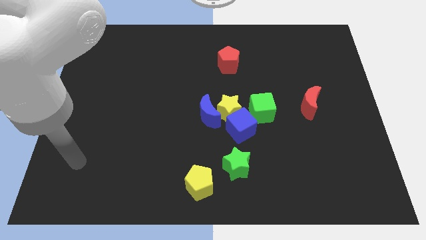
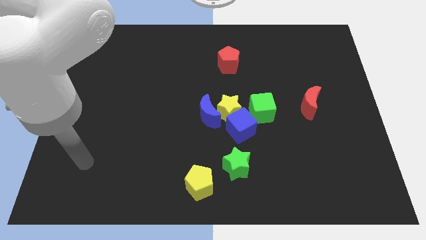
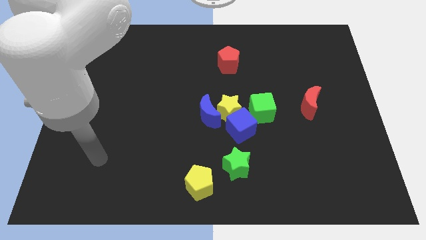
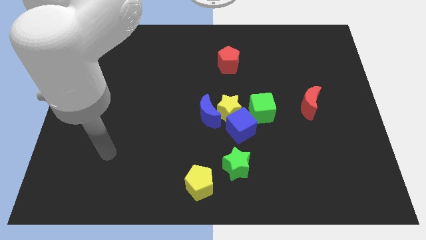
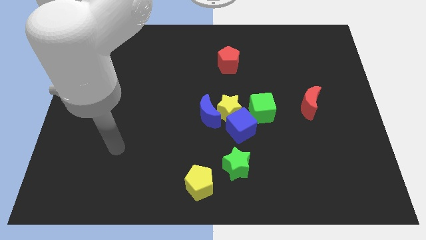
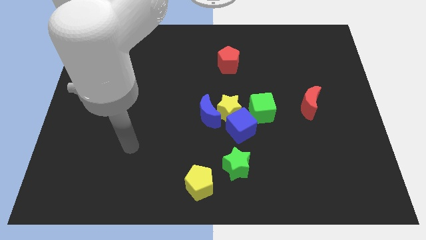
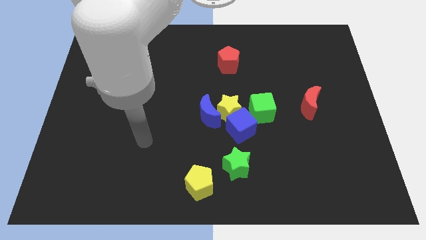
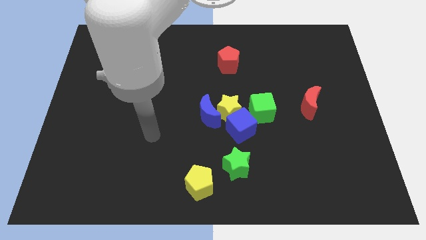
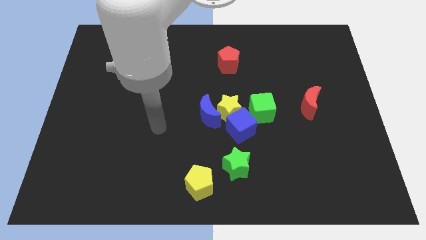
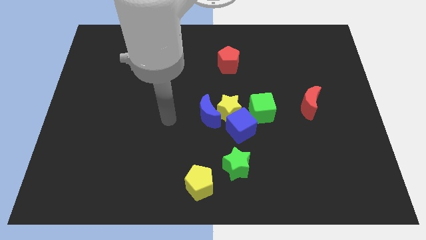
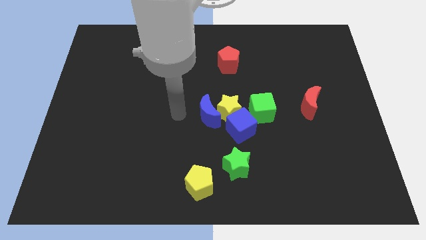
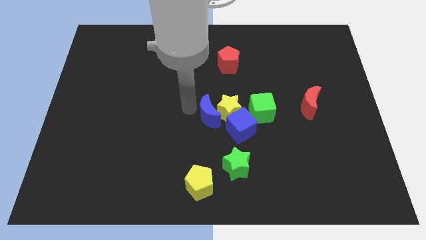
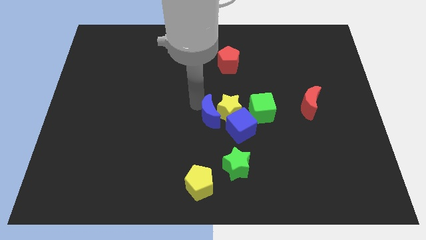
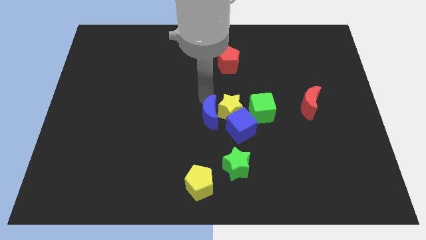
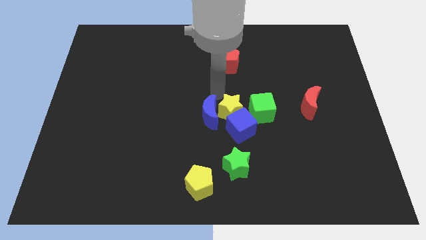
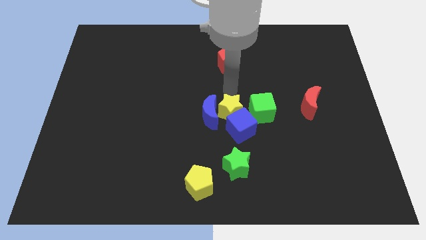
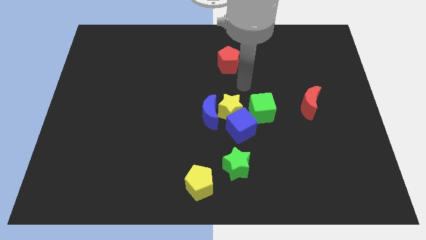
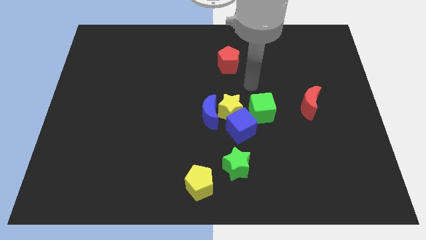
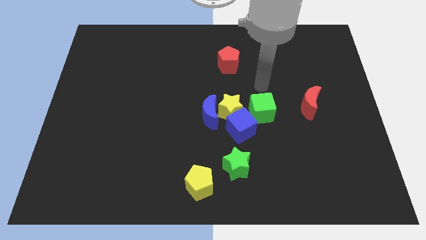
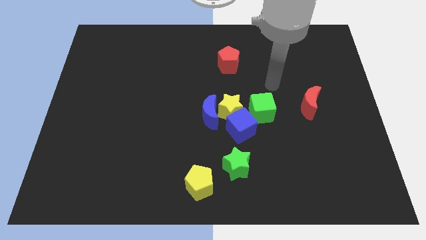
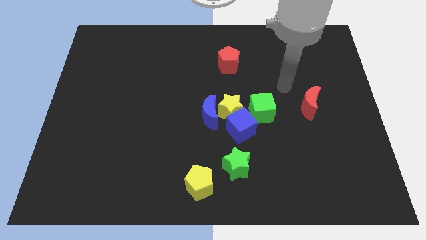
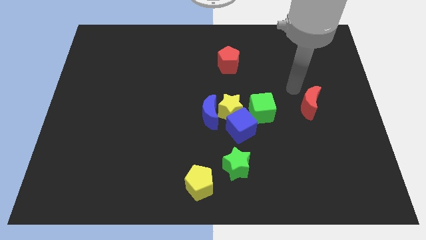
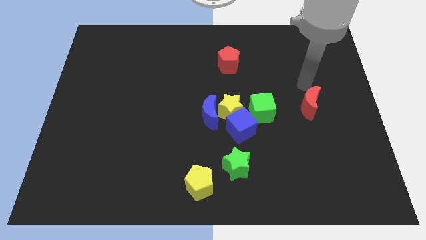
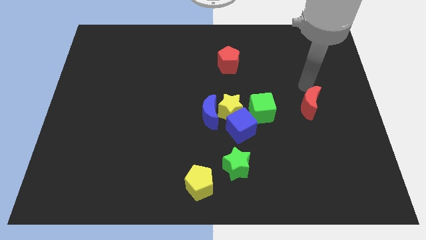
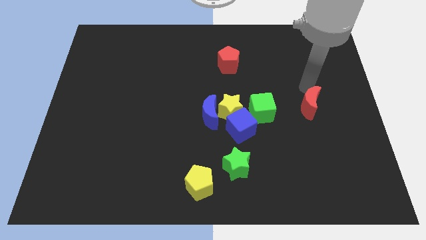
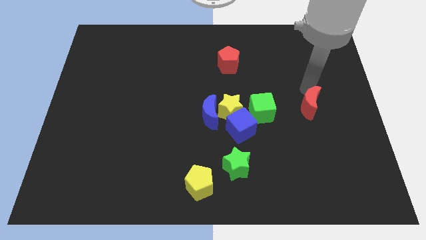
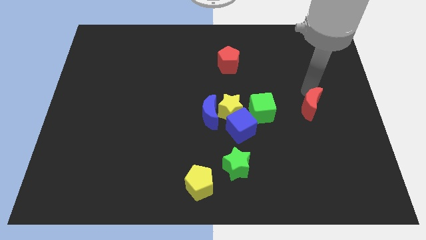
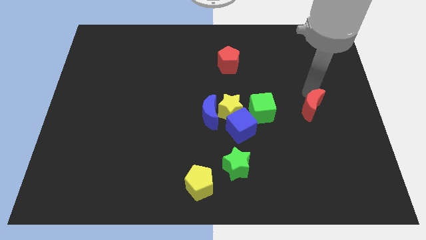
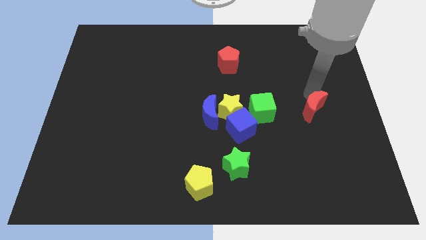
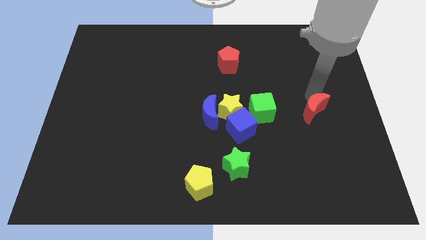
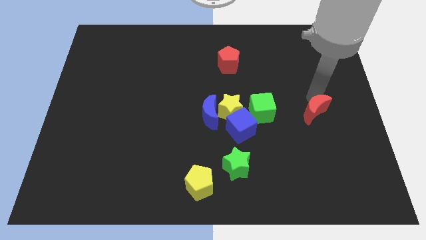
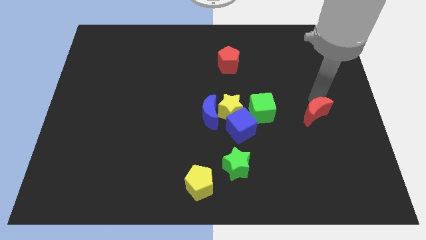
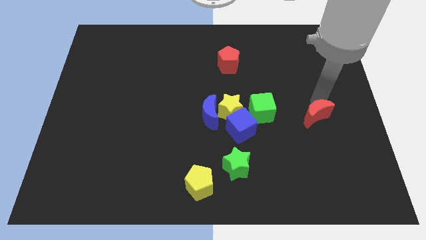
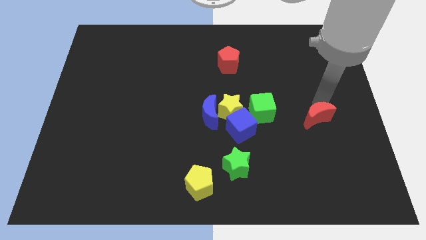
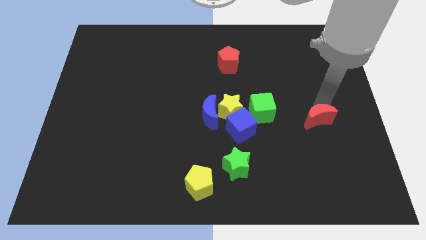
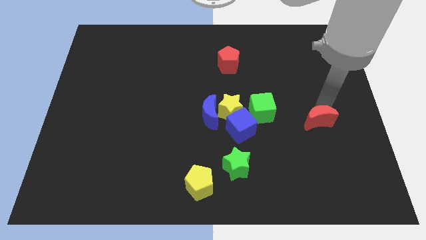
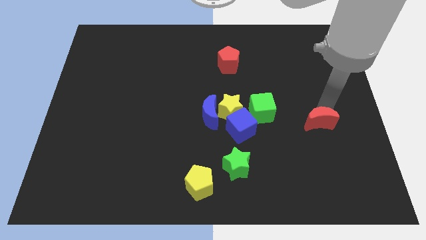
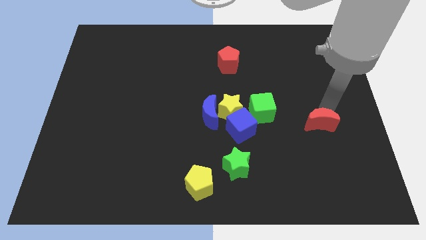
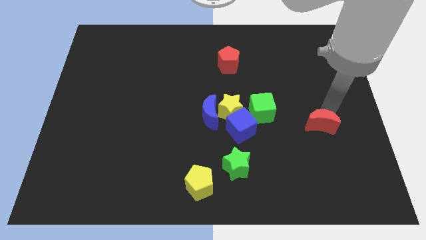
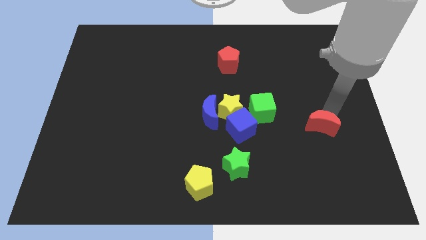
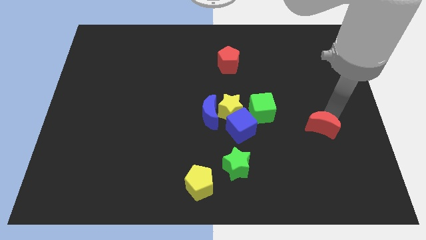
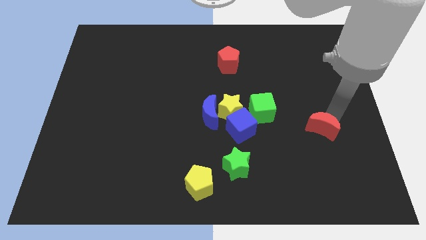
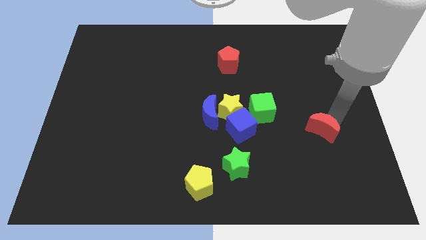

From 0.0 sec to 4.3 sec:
slide the red moon somewhat downwards

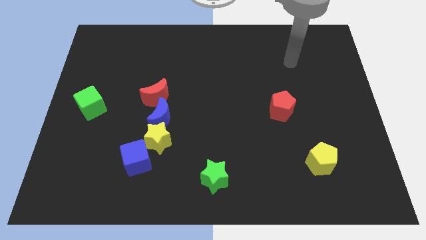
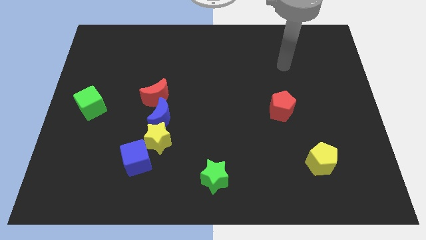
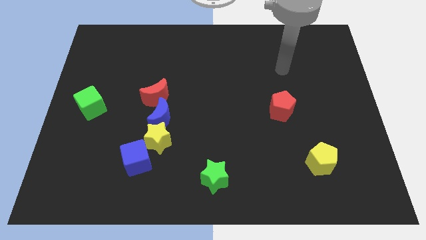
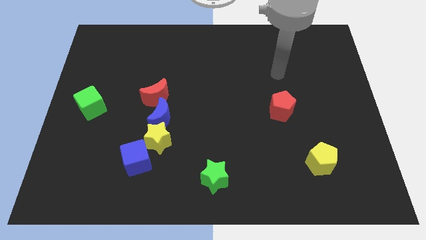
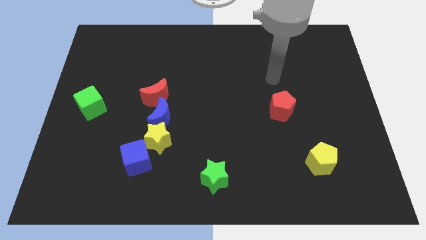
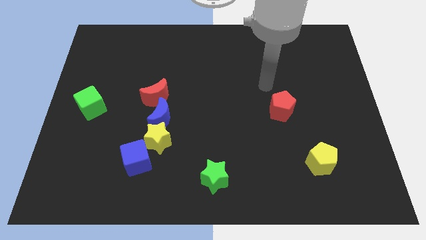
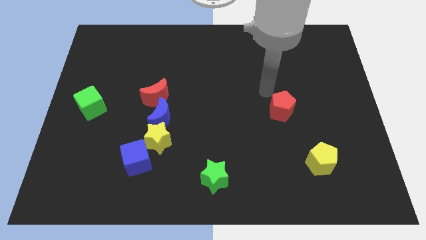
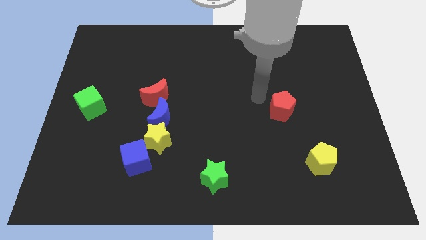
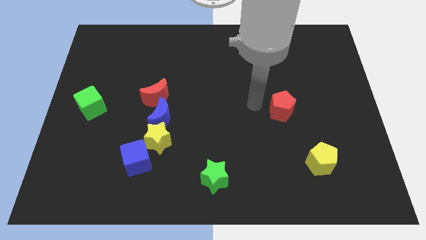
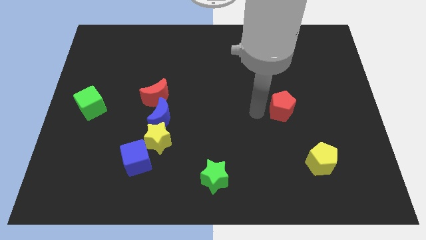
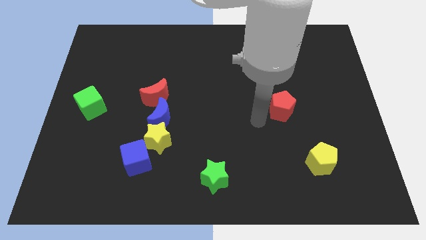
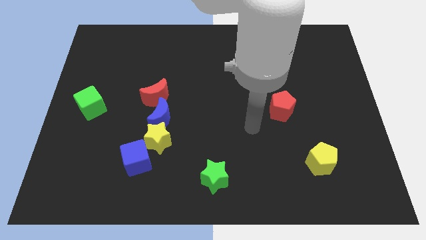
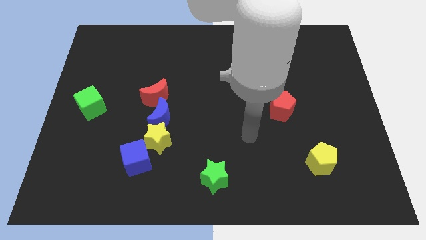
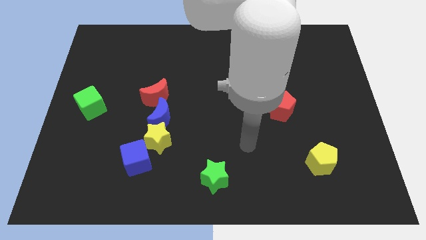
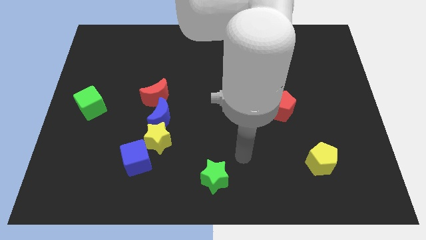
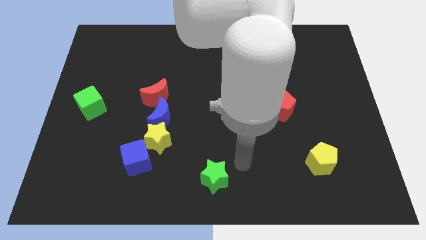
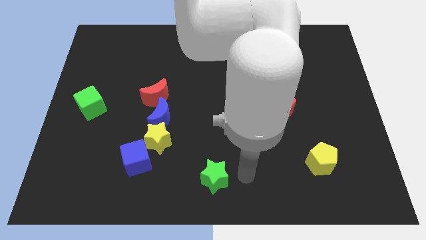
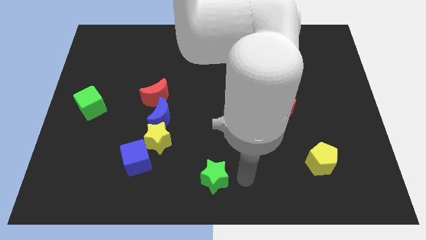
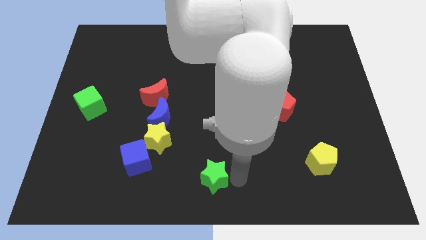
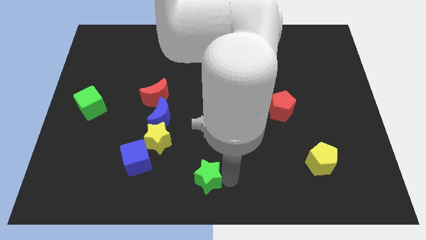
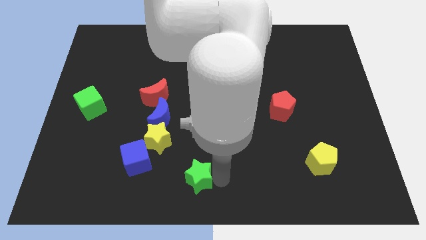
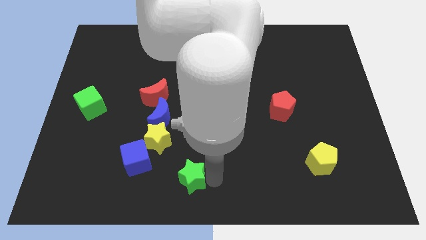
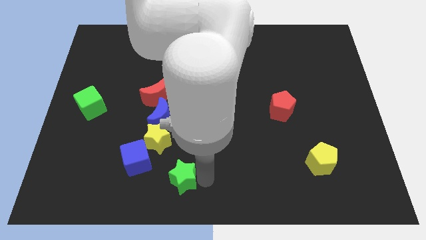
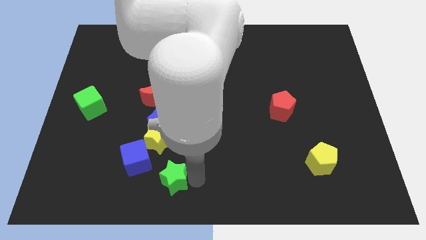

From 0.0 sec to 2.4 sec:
push the green star left somewhat

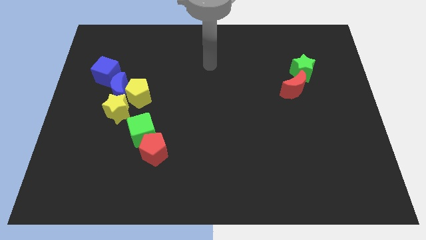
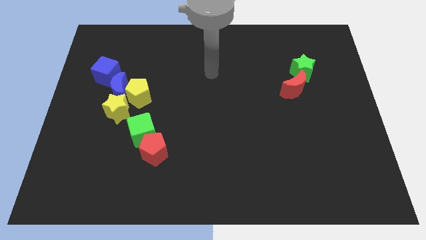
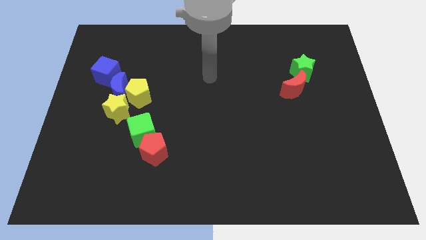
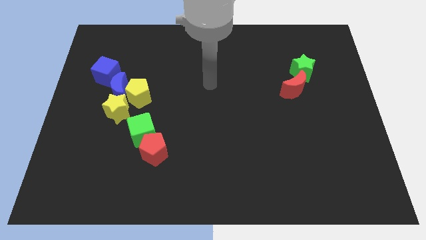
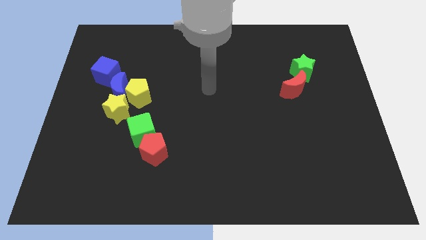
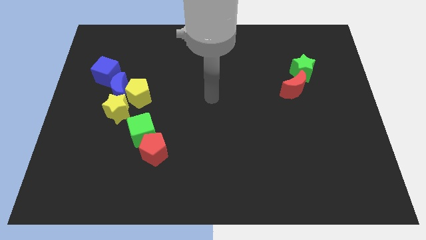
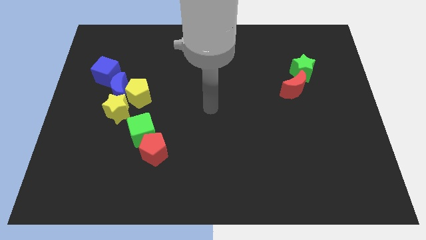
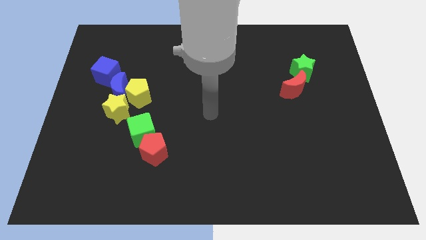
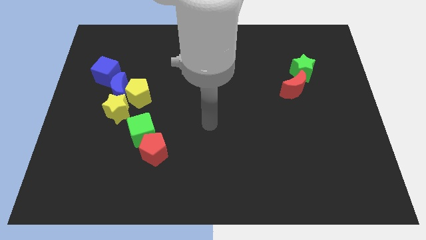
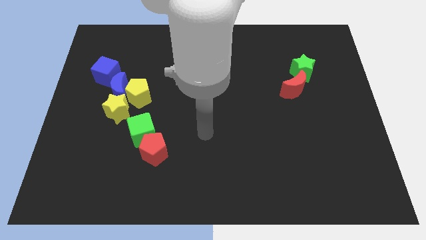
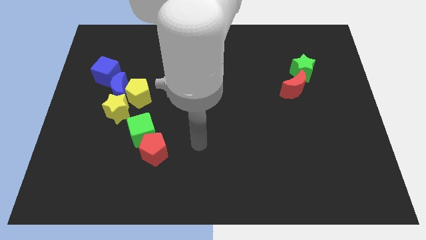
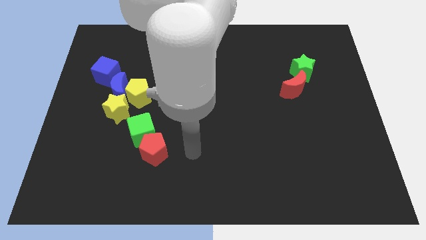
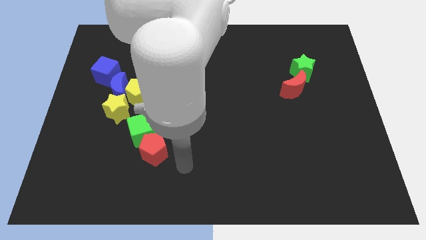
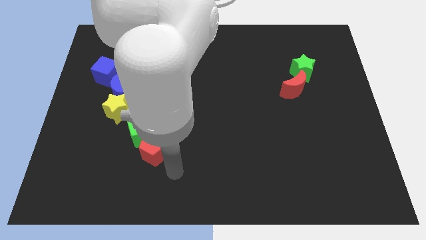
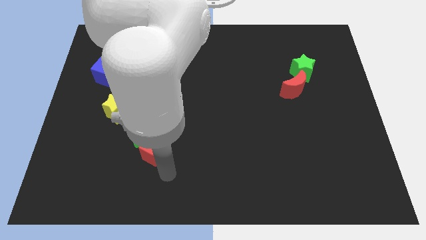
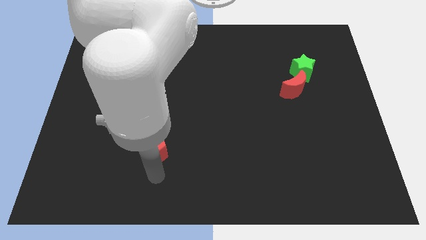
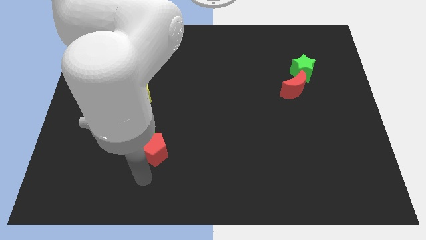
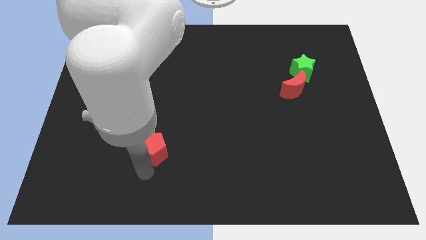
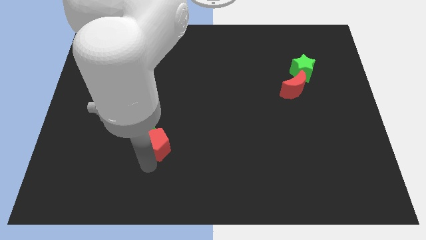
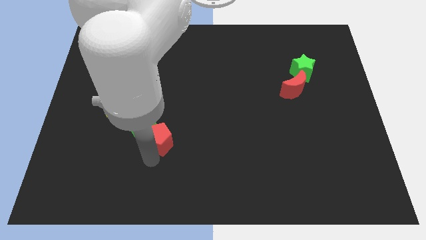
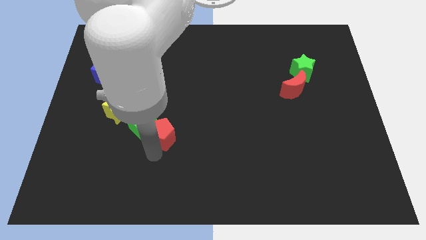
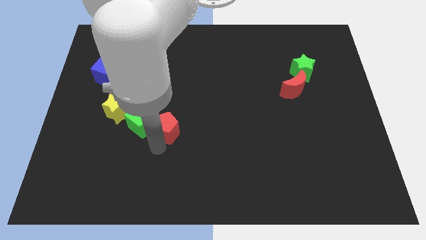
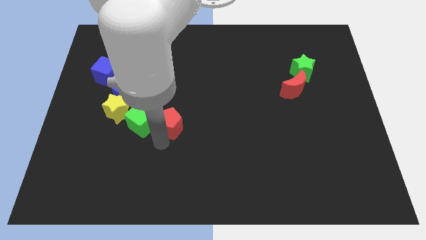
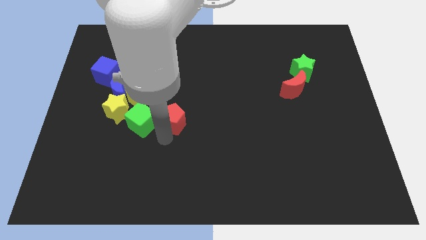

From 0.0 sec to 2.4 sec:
slightly move the red pentagon upwards
